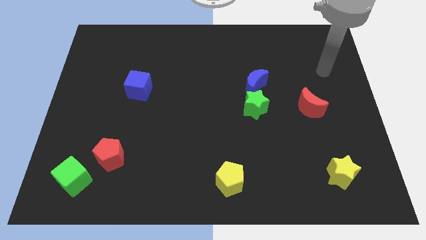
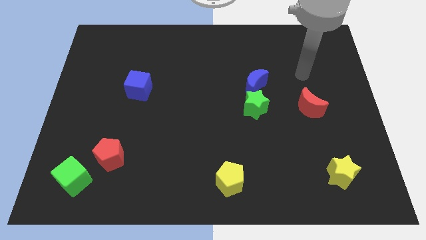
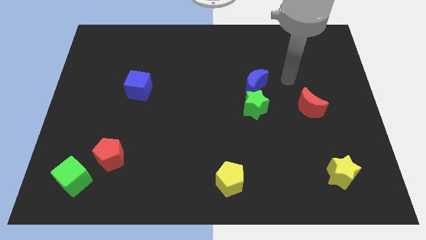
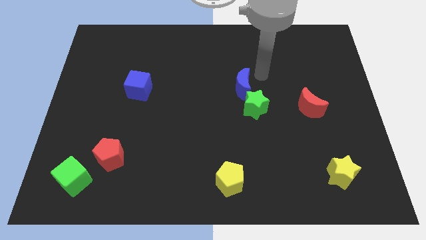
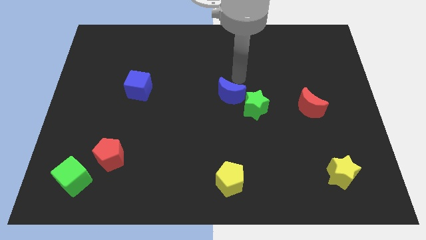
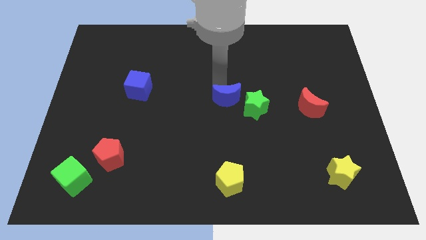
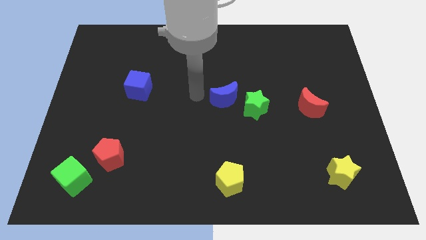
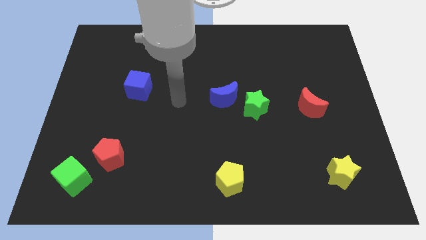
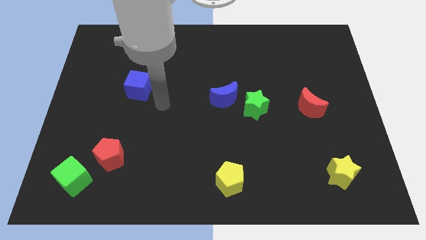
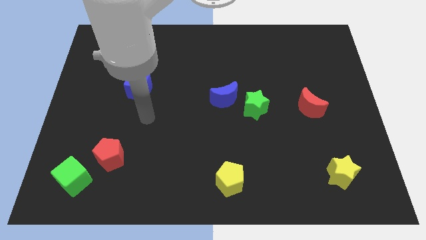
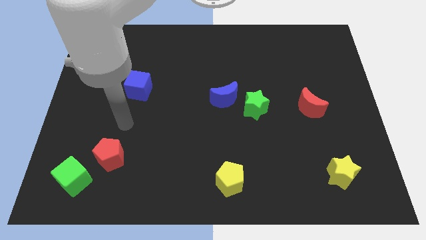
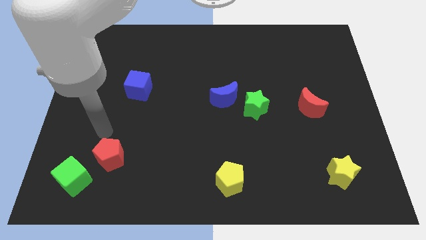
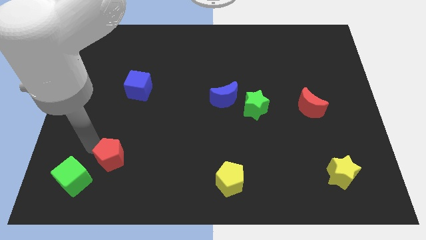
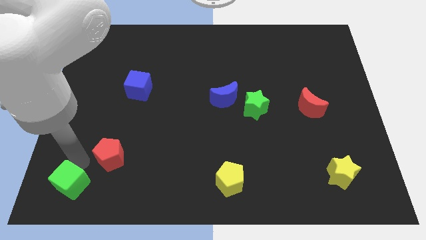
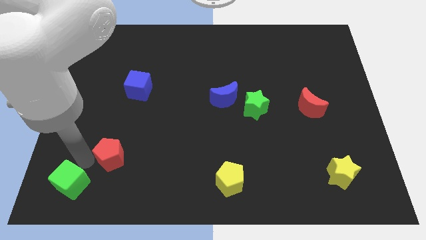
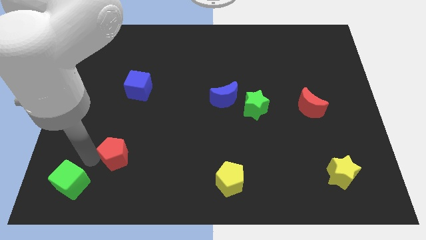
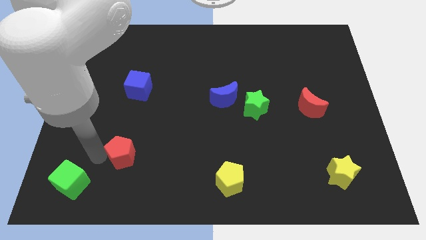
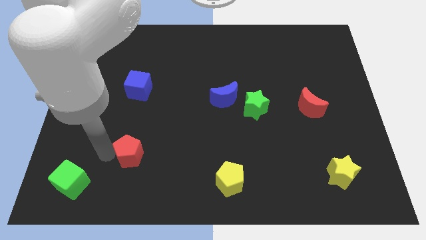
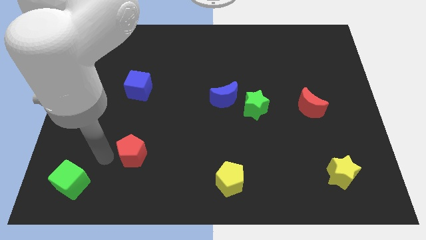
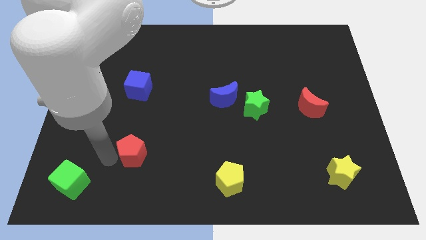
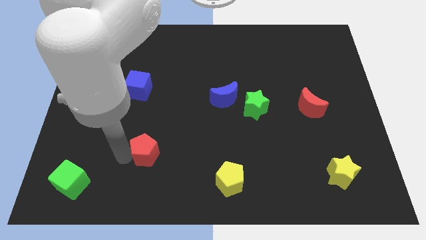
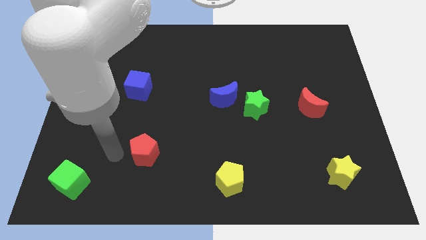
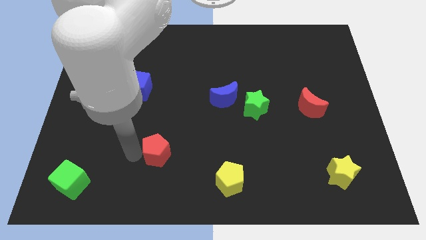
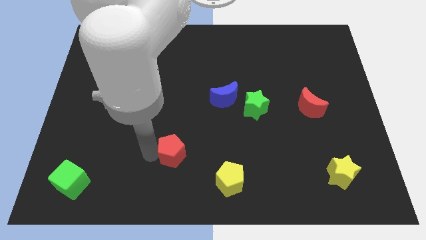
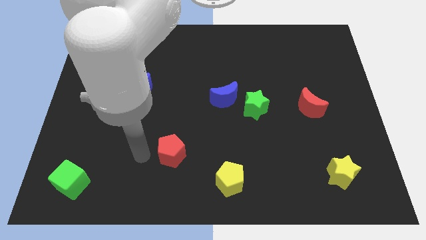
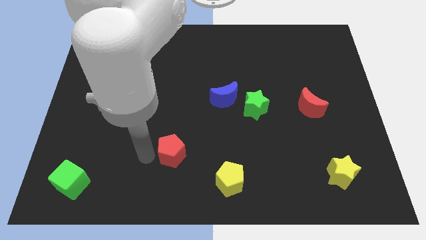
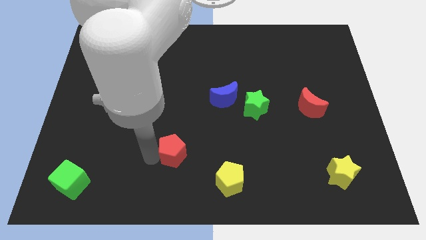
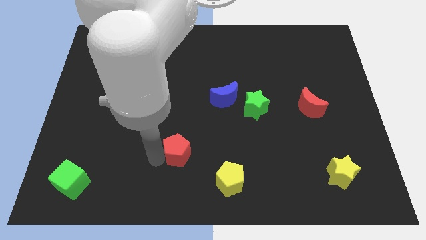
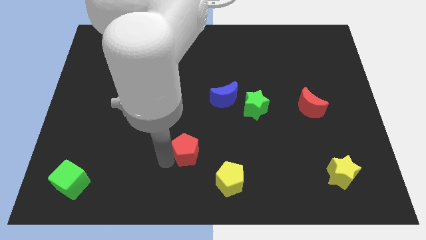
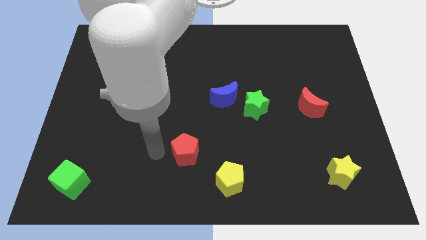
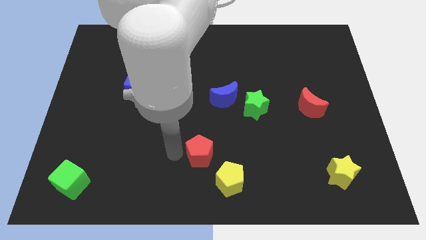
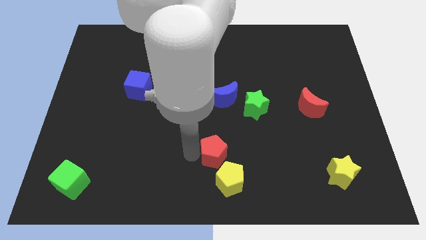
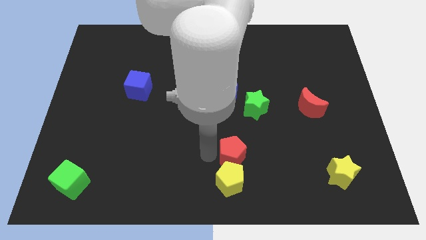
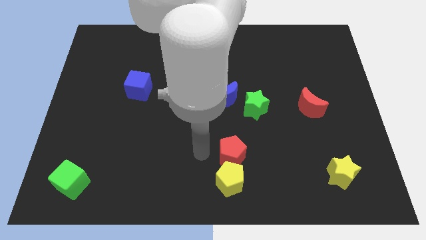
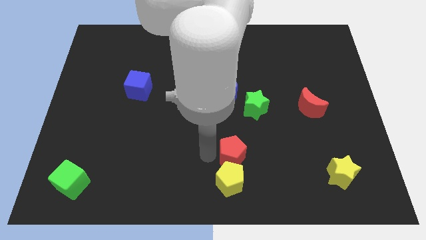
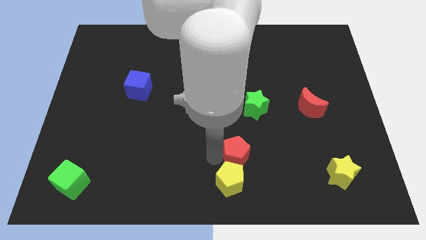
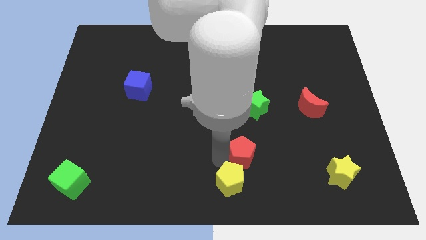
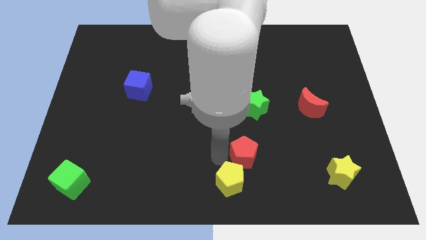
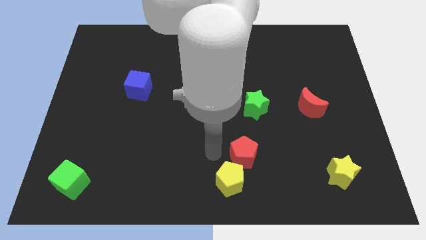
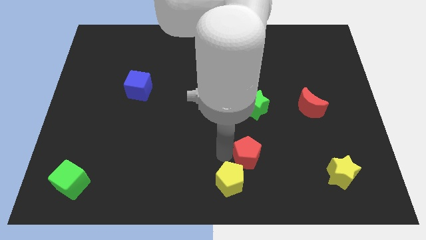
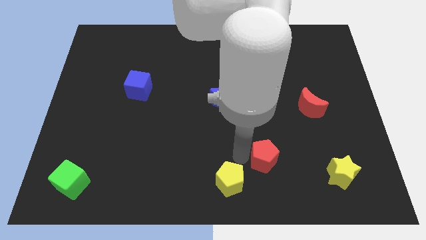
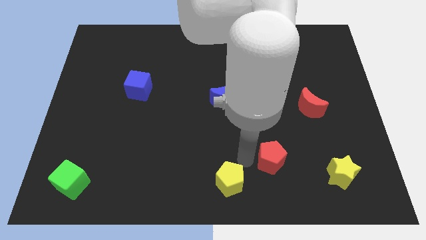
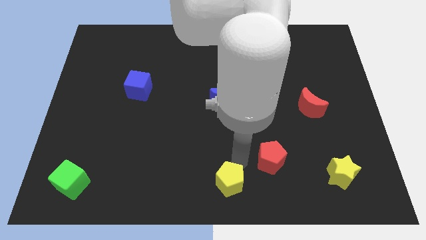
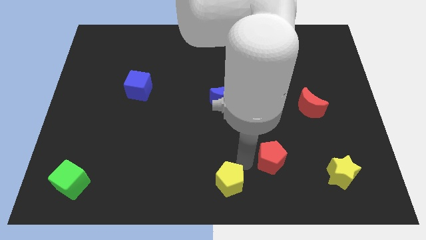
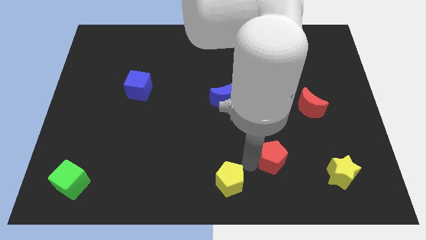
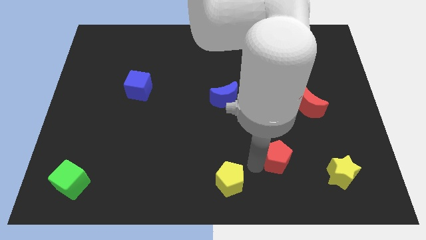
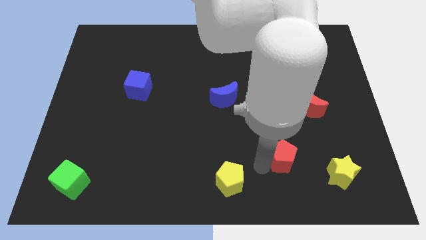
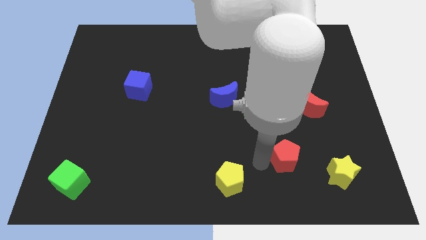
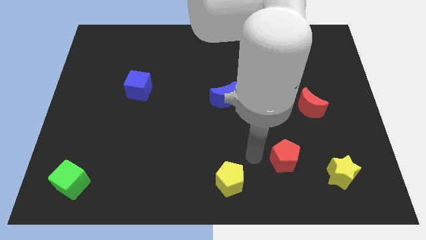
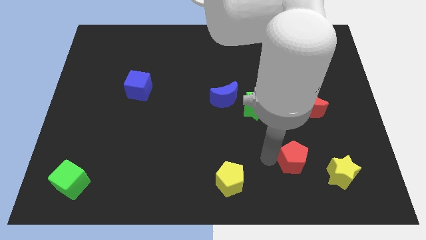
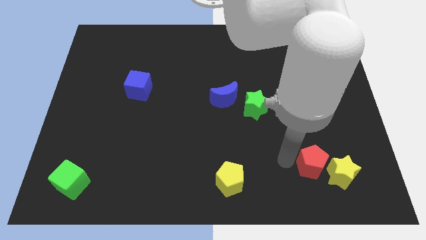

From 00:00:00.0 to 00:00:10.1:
slide the red pentagon close to the yellow star
